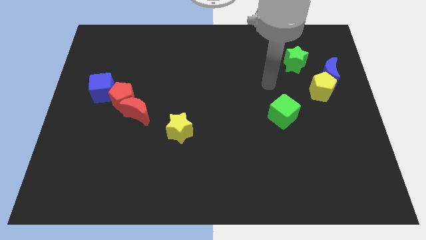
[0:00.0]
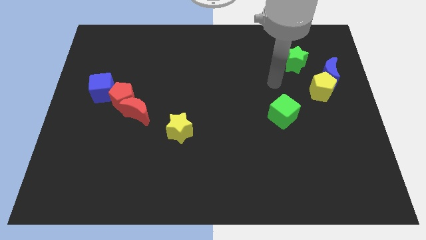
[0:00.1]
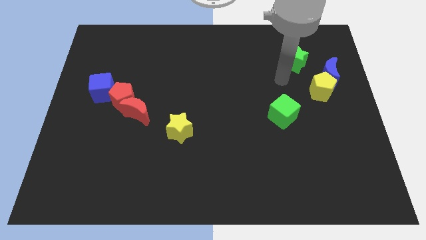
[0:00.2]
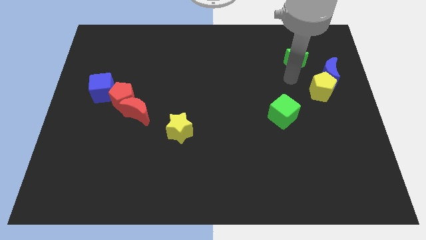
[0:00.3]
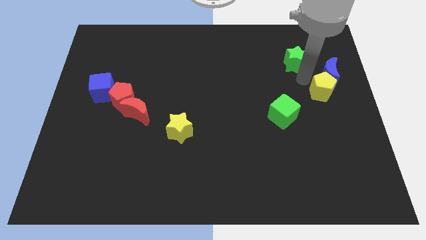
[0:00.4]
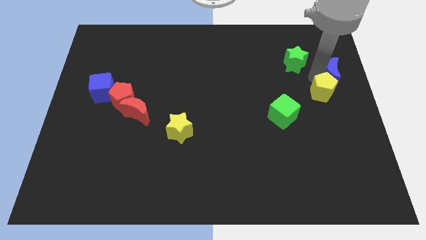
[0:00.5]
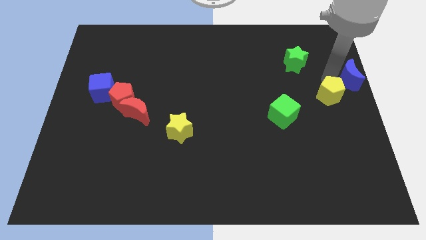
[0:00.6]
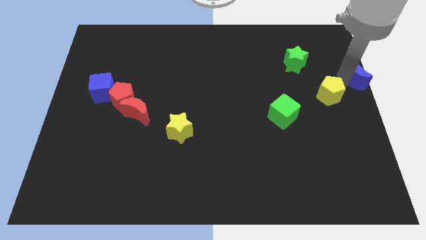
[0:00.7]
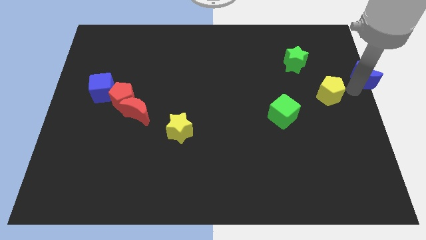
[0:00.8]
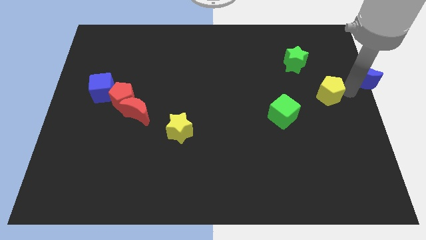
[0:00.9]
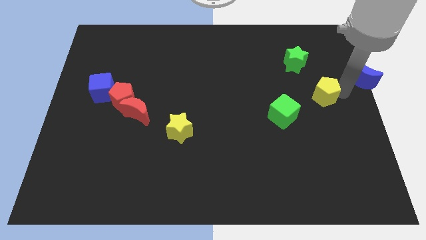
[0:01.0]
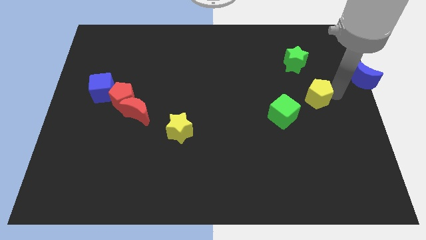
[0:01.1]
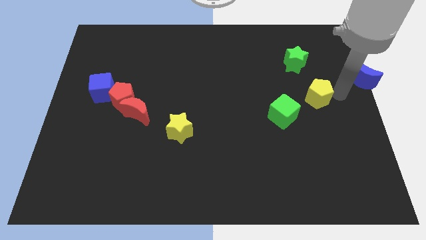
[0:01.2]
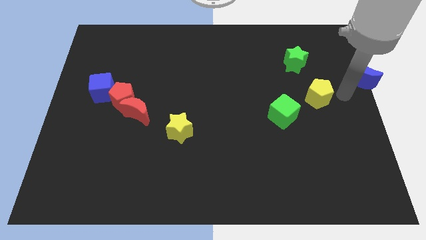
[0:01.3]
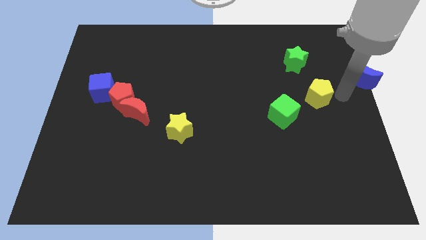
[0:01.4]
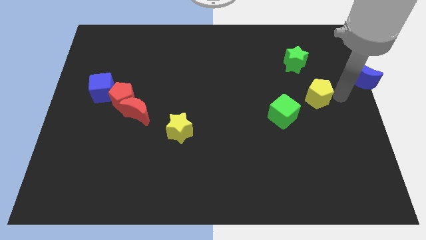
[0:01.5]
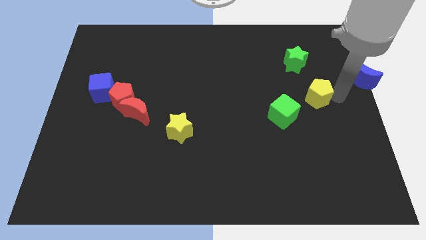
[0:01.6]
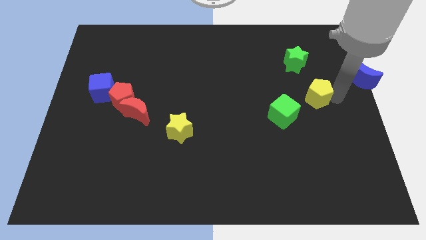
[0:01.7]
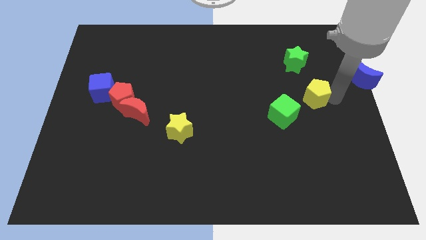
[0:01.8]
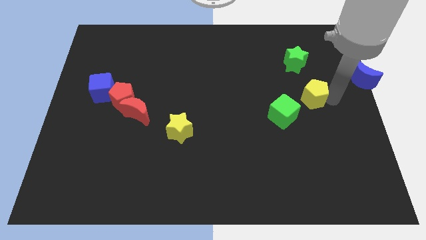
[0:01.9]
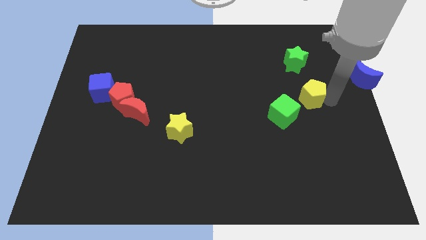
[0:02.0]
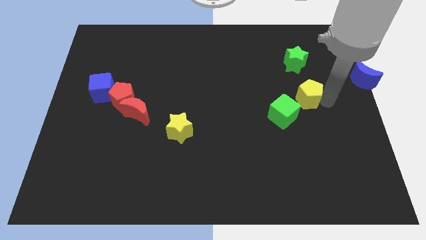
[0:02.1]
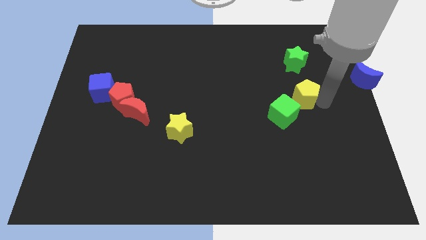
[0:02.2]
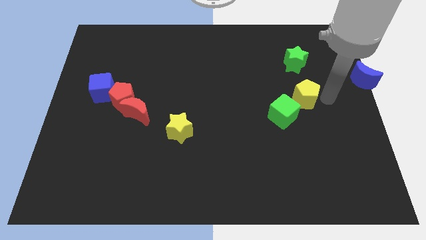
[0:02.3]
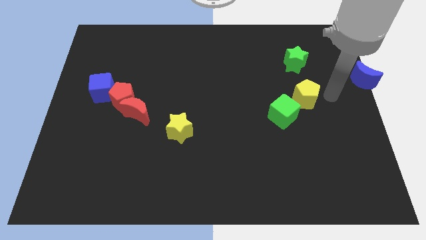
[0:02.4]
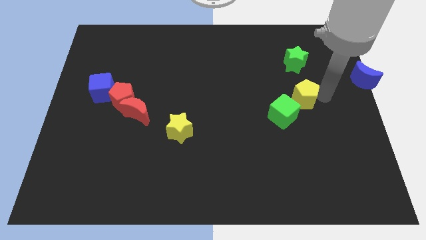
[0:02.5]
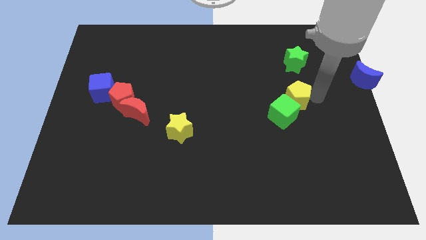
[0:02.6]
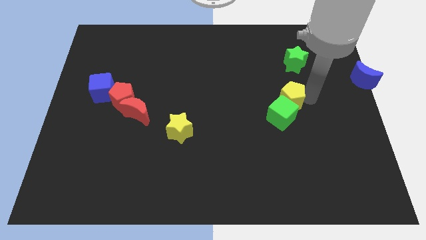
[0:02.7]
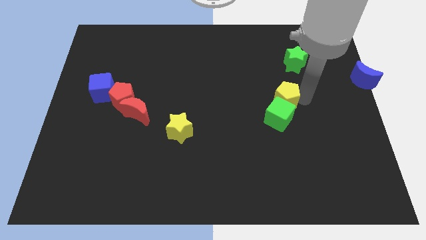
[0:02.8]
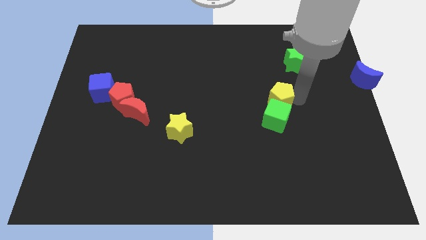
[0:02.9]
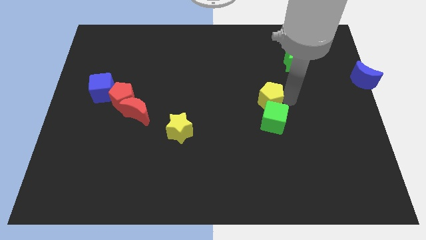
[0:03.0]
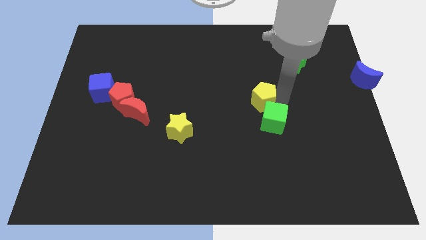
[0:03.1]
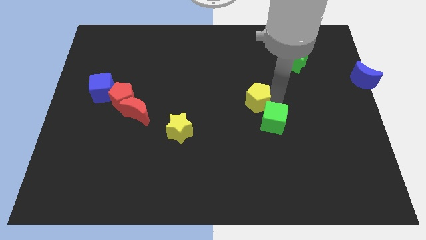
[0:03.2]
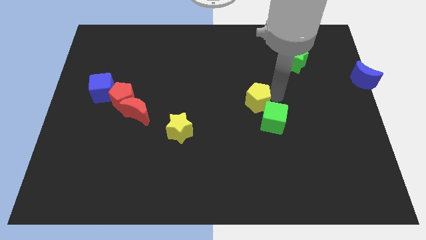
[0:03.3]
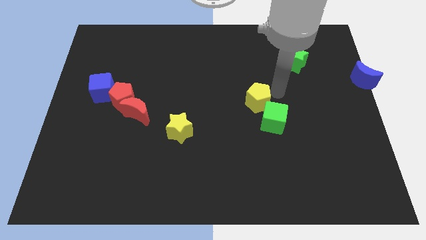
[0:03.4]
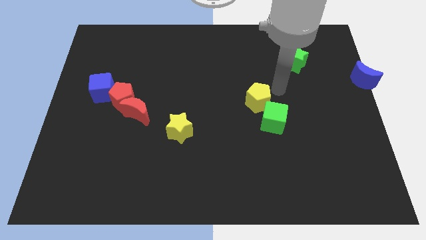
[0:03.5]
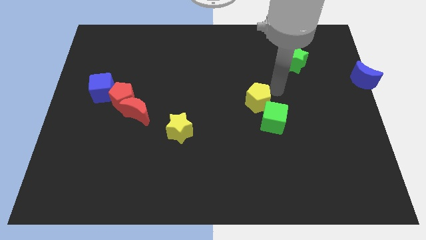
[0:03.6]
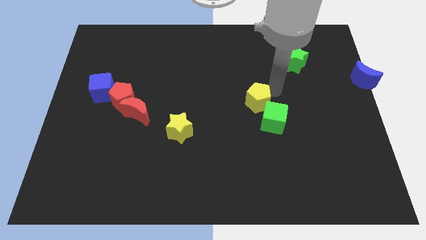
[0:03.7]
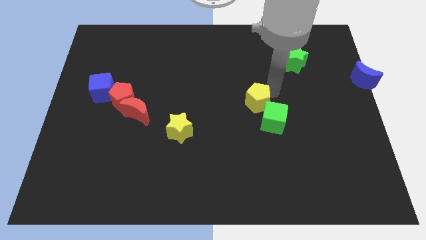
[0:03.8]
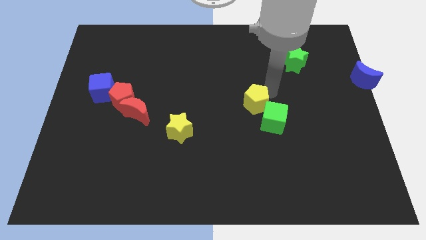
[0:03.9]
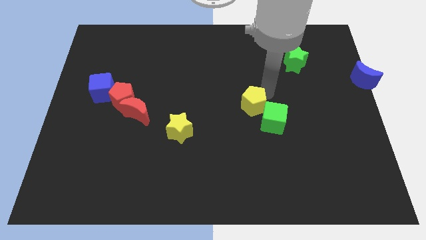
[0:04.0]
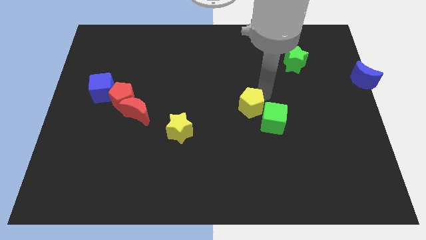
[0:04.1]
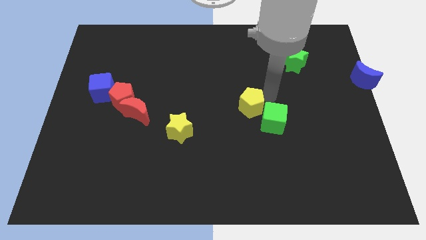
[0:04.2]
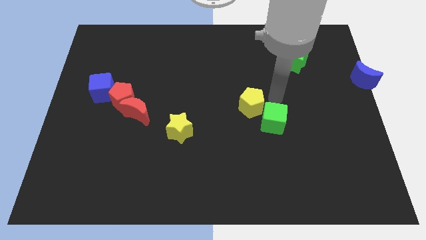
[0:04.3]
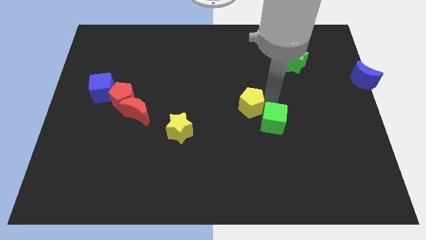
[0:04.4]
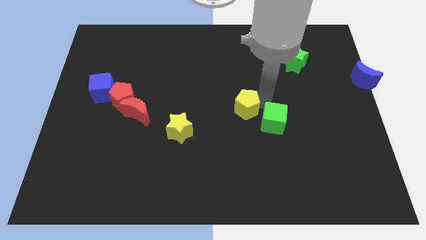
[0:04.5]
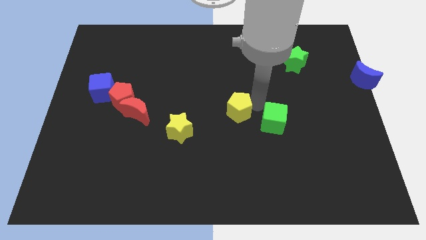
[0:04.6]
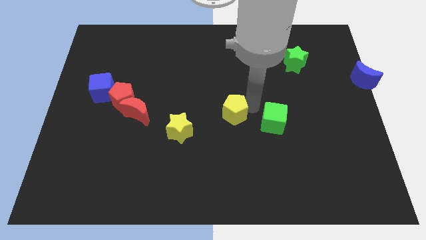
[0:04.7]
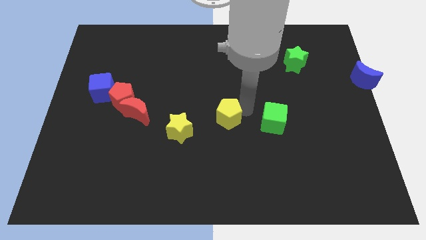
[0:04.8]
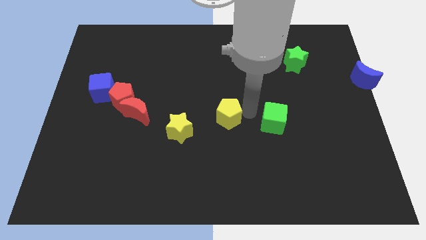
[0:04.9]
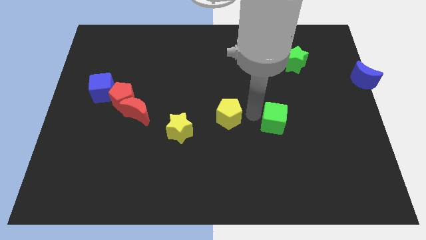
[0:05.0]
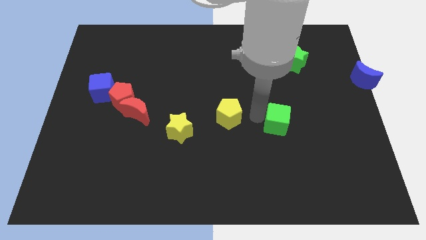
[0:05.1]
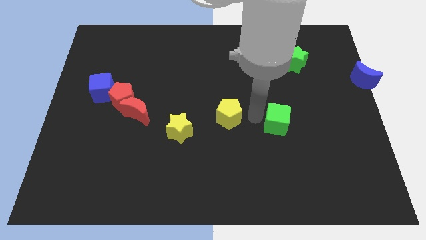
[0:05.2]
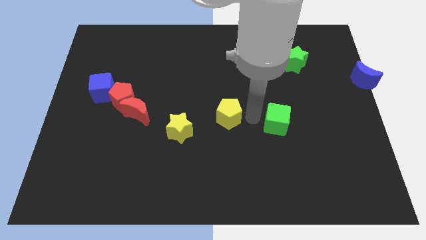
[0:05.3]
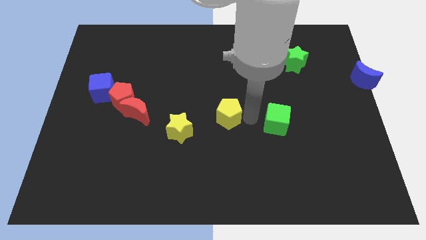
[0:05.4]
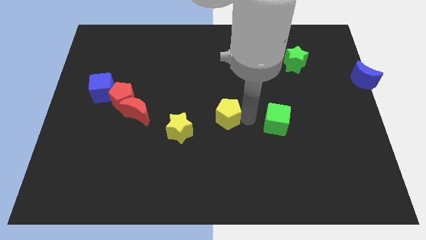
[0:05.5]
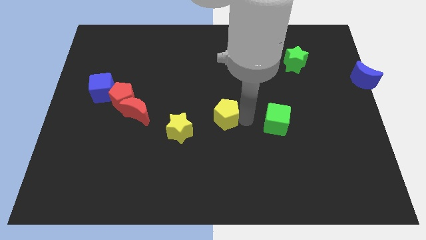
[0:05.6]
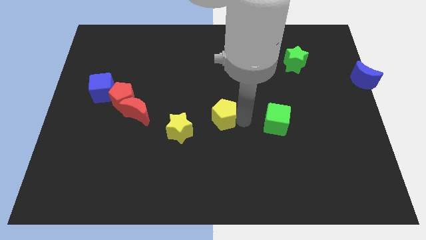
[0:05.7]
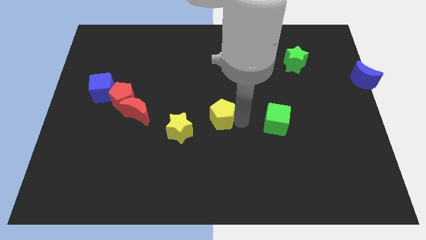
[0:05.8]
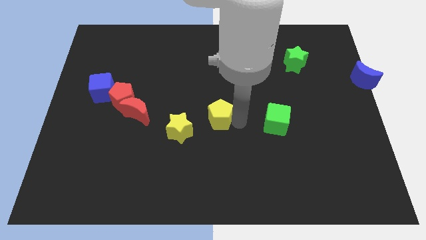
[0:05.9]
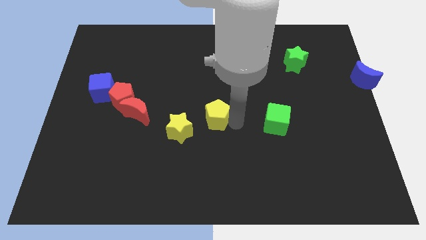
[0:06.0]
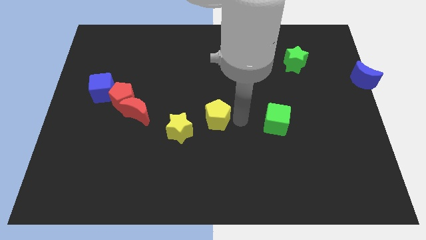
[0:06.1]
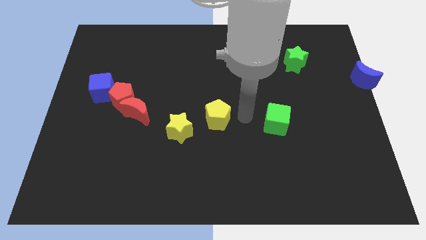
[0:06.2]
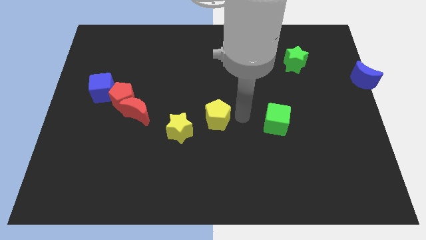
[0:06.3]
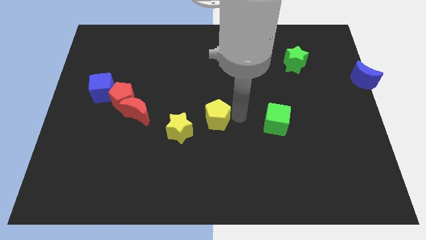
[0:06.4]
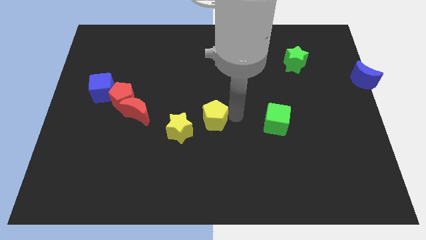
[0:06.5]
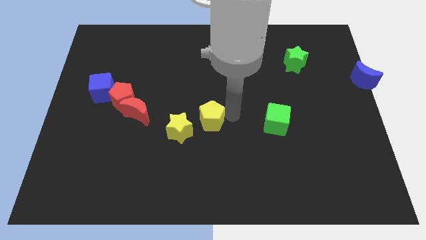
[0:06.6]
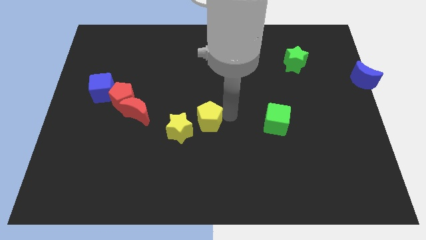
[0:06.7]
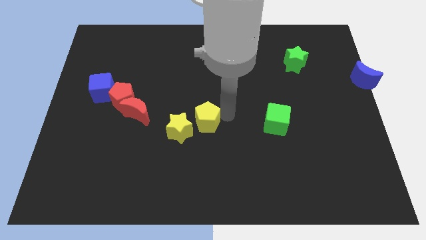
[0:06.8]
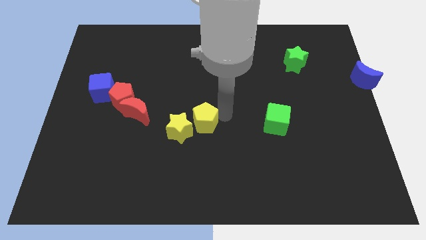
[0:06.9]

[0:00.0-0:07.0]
move the yellow pentagon towards the yellow star

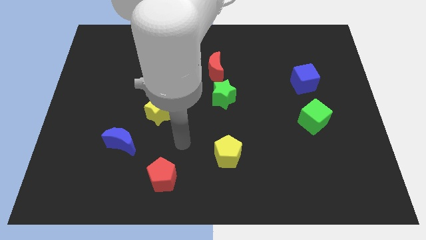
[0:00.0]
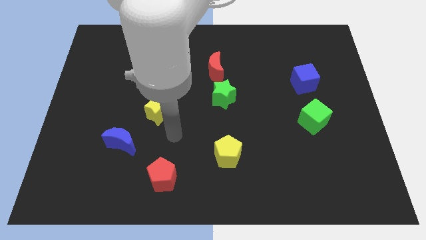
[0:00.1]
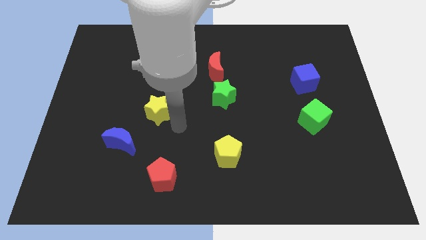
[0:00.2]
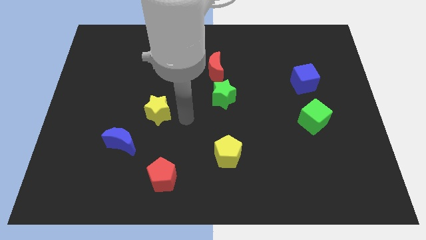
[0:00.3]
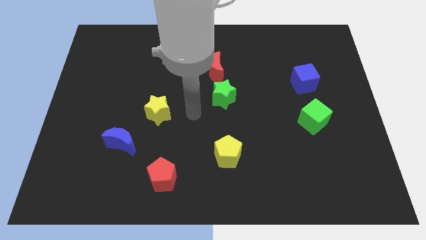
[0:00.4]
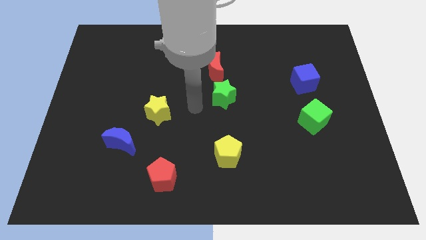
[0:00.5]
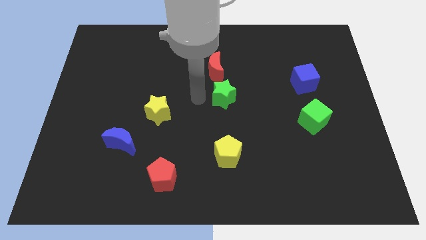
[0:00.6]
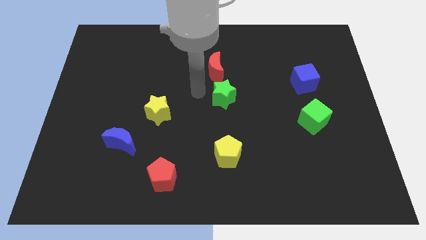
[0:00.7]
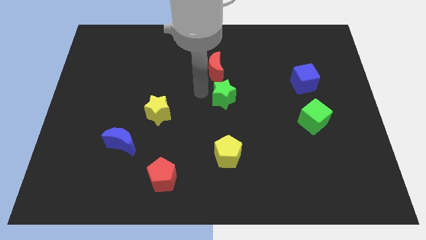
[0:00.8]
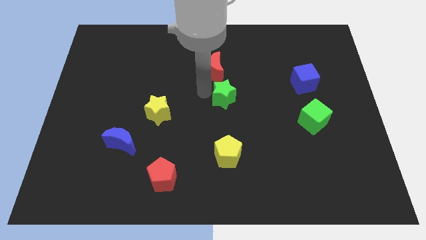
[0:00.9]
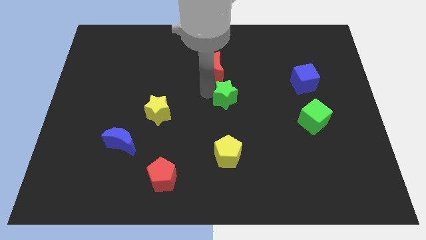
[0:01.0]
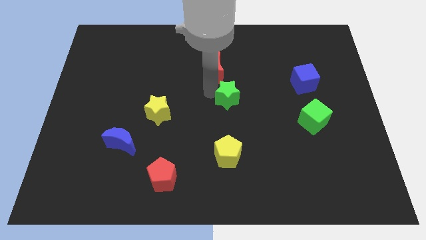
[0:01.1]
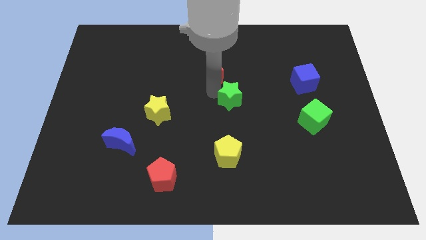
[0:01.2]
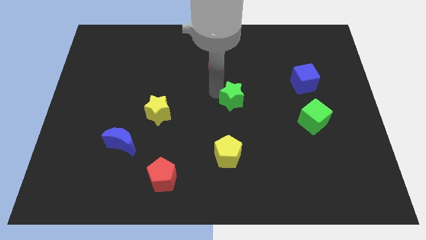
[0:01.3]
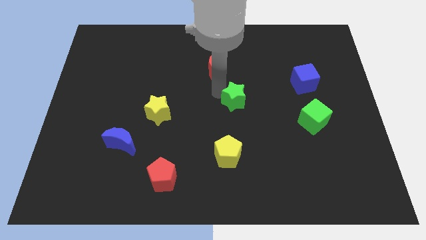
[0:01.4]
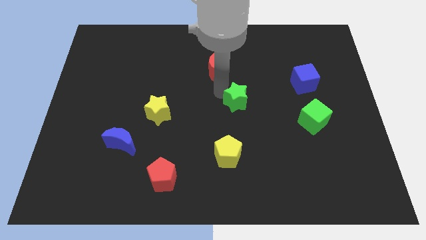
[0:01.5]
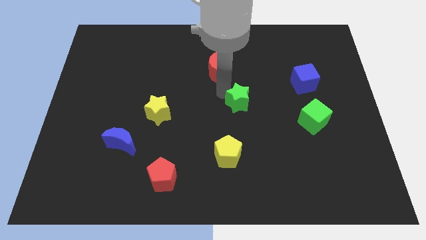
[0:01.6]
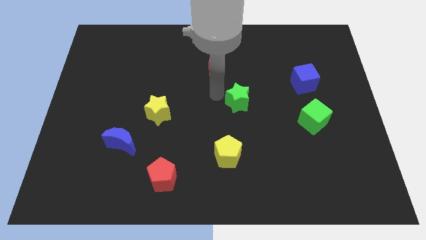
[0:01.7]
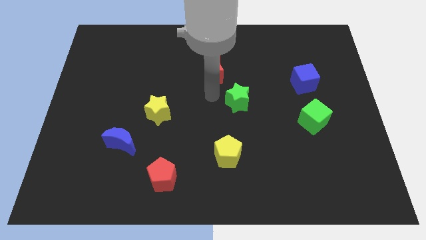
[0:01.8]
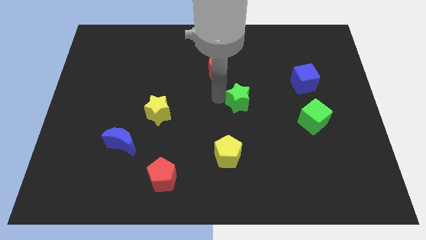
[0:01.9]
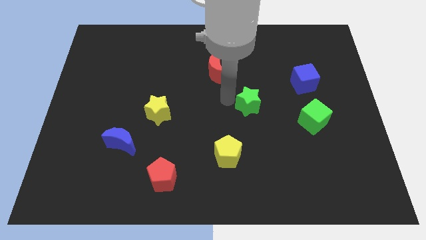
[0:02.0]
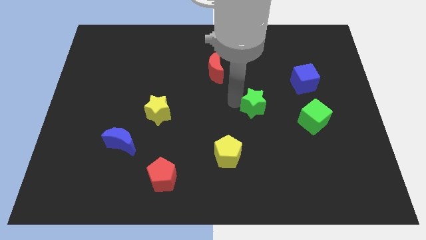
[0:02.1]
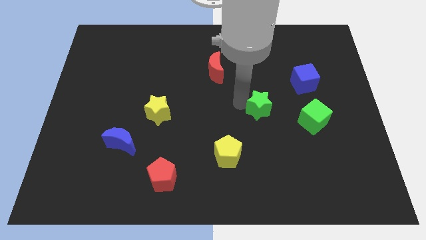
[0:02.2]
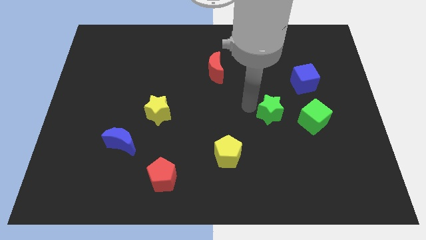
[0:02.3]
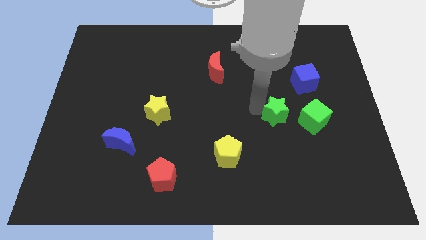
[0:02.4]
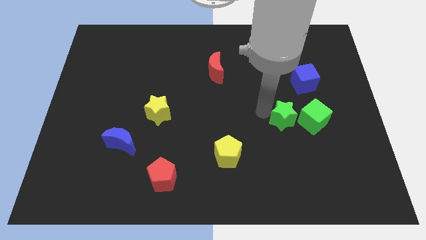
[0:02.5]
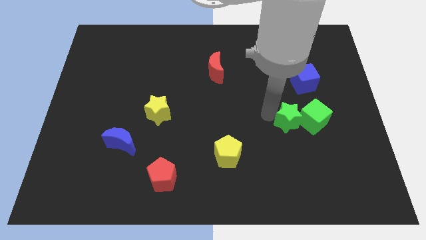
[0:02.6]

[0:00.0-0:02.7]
push the green star close to the green cube
